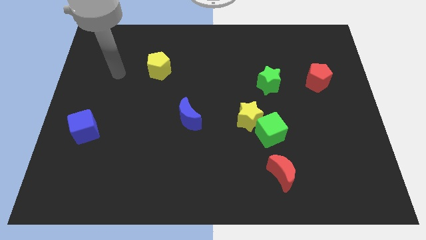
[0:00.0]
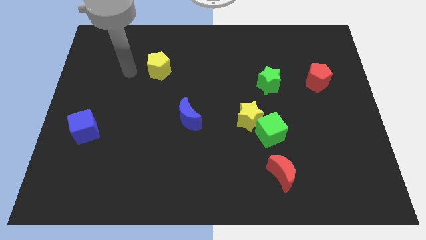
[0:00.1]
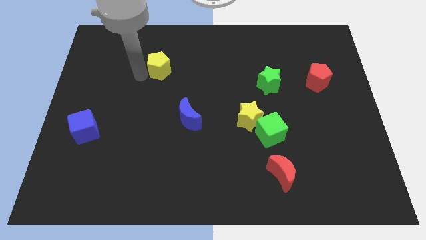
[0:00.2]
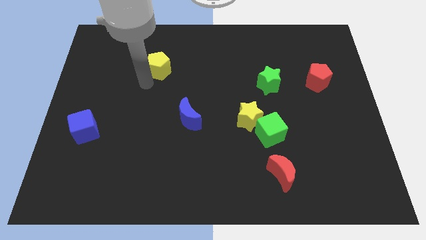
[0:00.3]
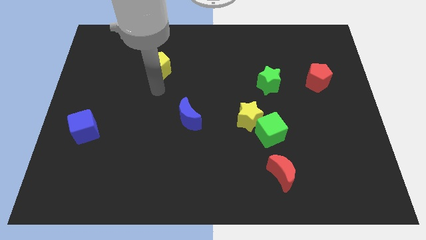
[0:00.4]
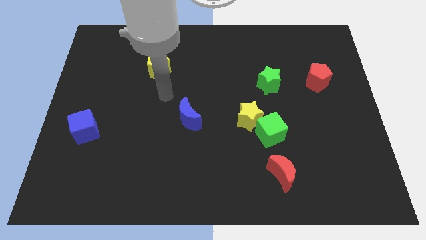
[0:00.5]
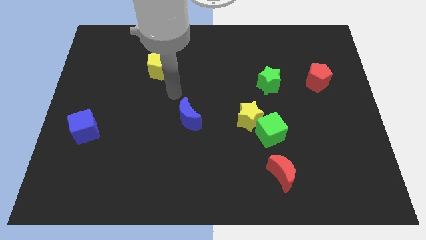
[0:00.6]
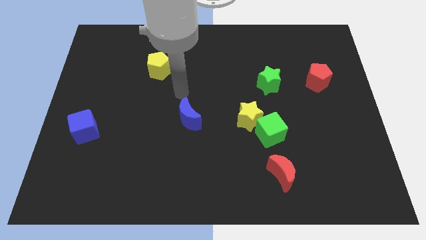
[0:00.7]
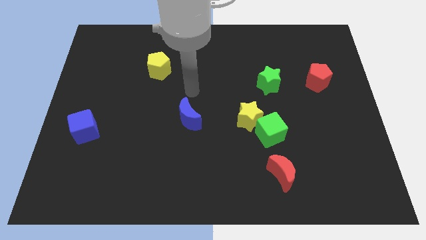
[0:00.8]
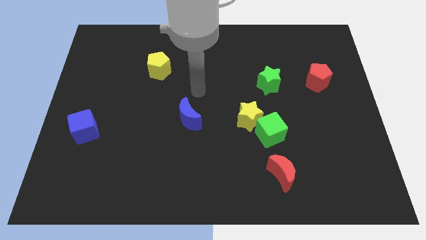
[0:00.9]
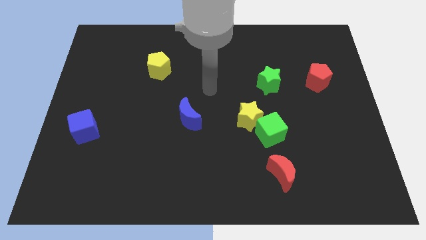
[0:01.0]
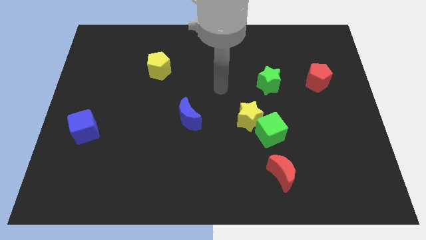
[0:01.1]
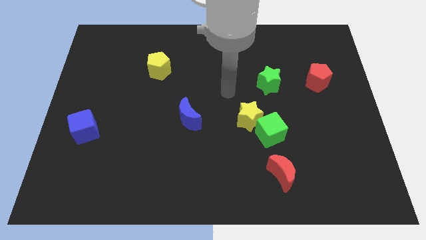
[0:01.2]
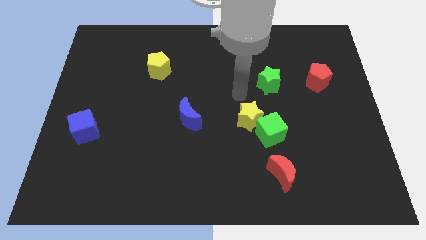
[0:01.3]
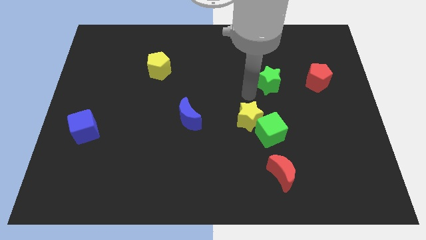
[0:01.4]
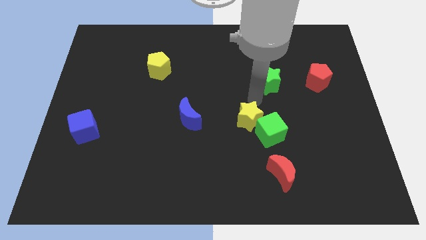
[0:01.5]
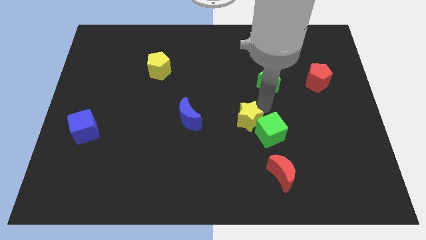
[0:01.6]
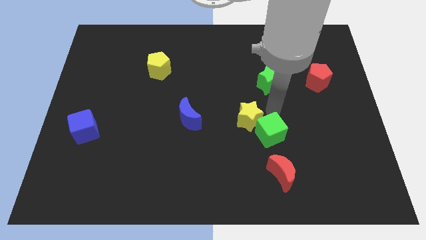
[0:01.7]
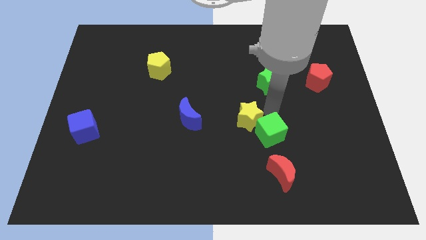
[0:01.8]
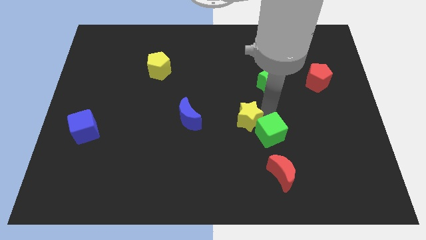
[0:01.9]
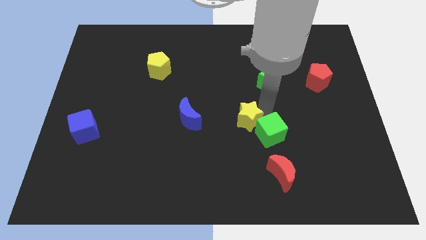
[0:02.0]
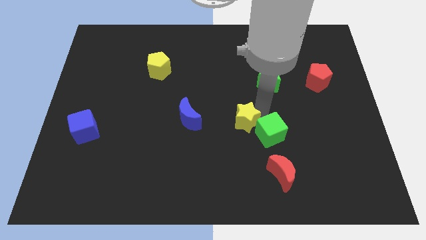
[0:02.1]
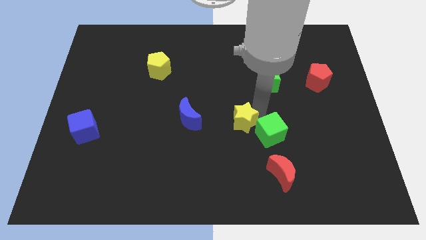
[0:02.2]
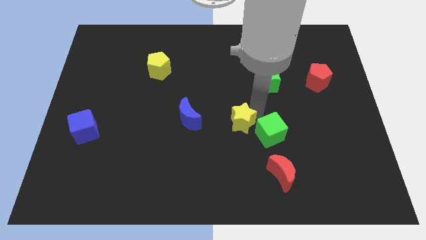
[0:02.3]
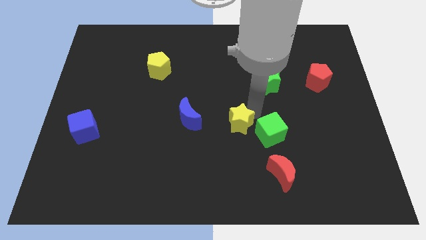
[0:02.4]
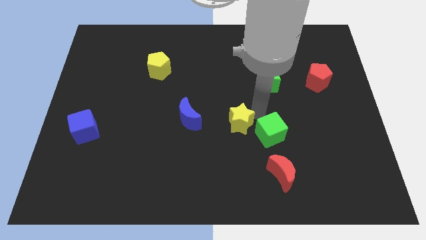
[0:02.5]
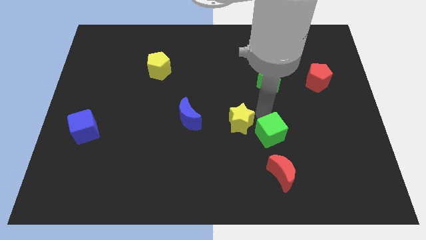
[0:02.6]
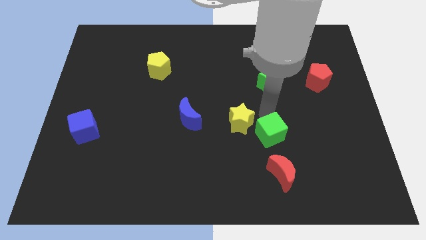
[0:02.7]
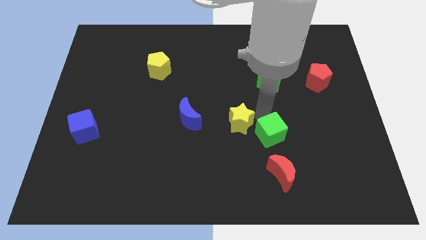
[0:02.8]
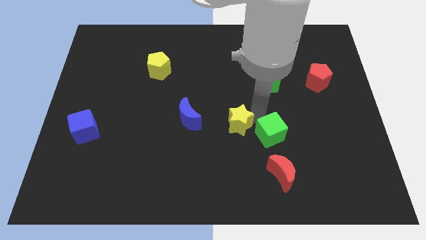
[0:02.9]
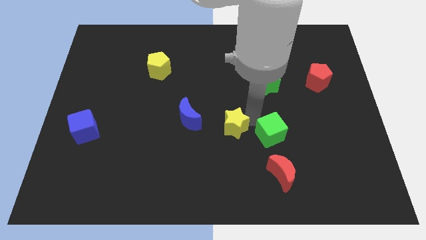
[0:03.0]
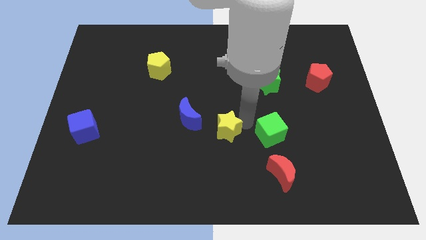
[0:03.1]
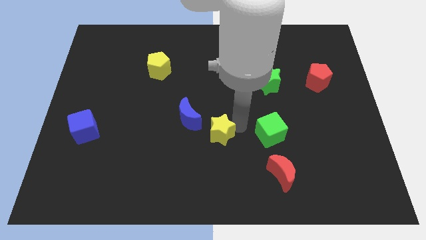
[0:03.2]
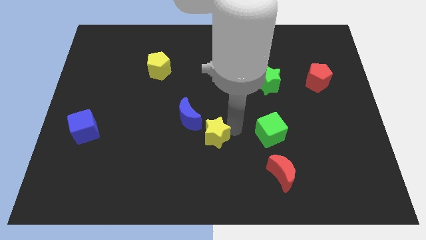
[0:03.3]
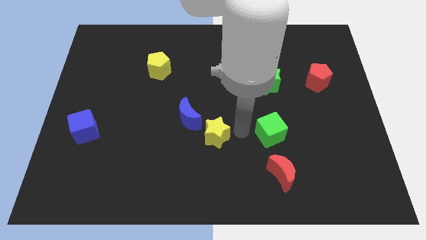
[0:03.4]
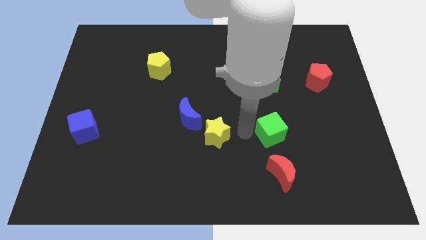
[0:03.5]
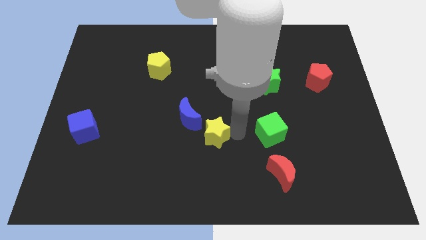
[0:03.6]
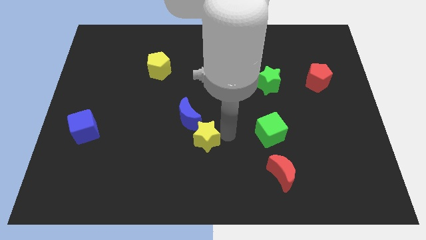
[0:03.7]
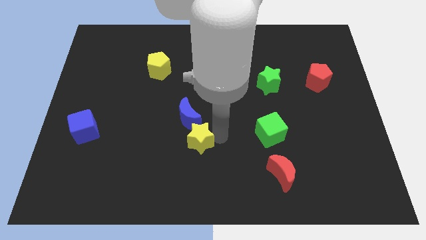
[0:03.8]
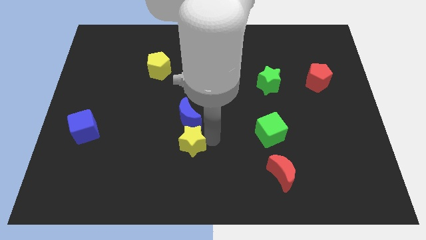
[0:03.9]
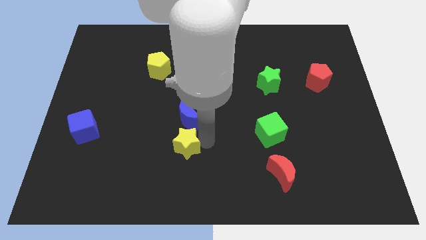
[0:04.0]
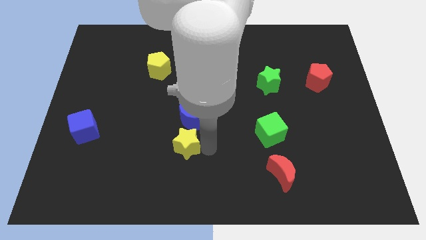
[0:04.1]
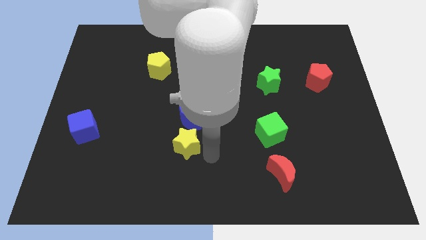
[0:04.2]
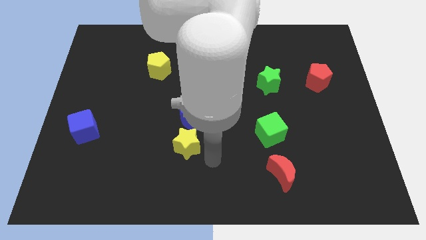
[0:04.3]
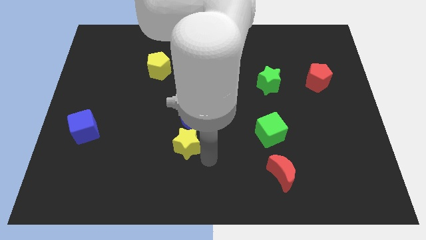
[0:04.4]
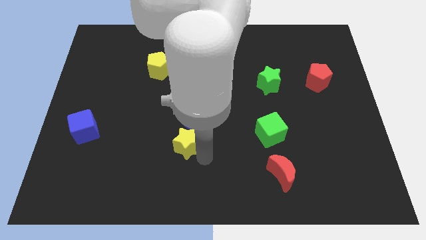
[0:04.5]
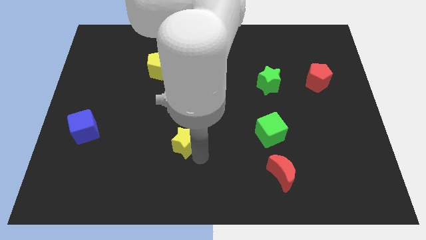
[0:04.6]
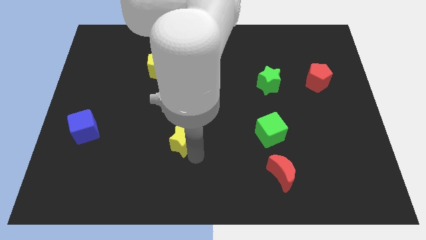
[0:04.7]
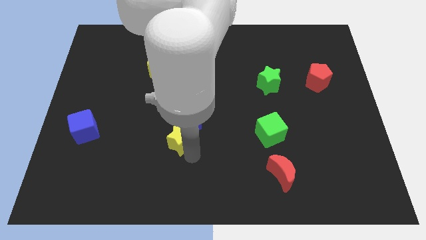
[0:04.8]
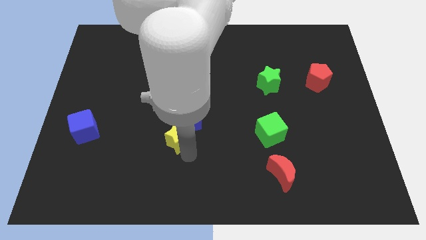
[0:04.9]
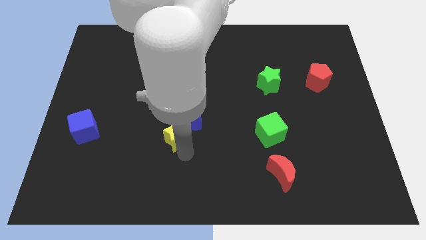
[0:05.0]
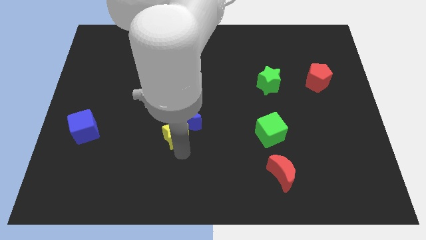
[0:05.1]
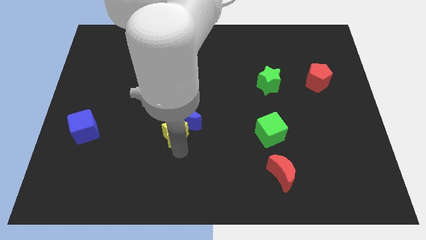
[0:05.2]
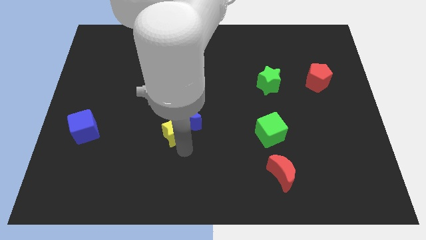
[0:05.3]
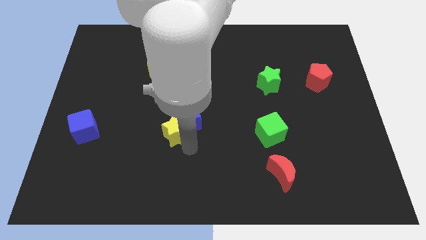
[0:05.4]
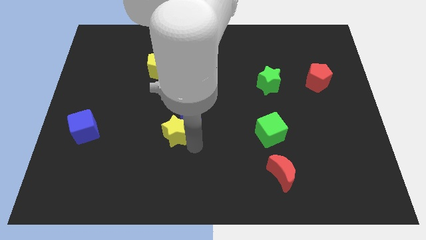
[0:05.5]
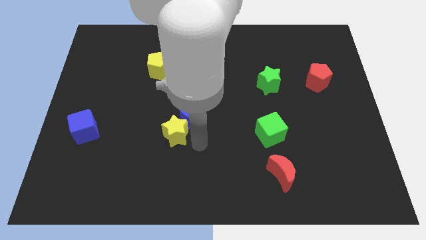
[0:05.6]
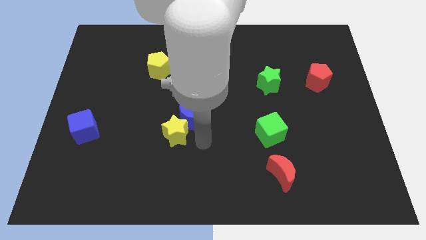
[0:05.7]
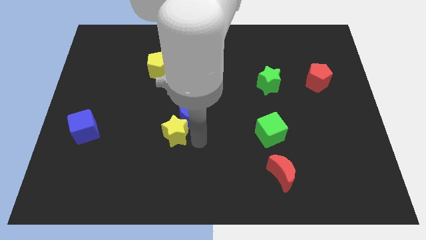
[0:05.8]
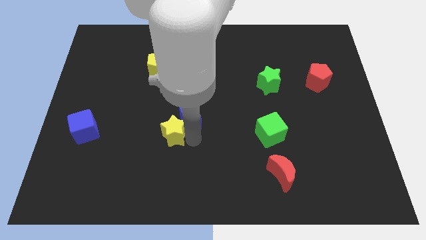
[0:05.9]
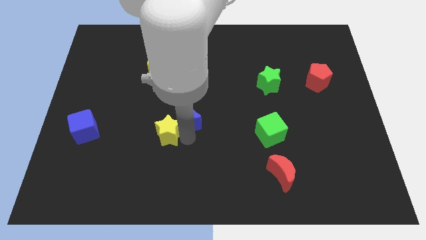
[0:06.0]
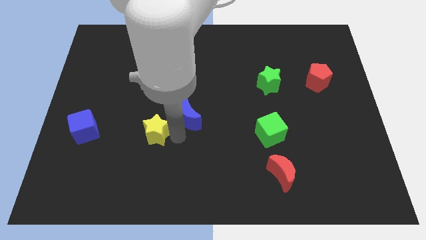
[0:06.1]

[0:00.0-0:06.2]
move the yellow star to the left

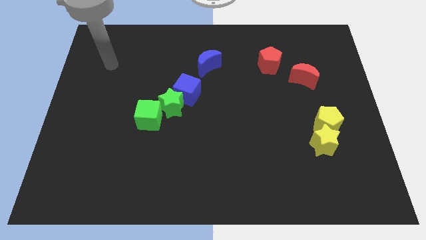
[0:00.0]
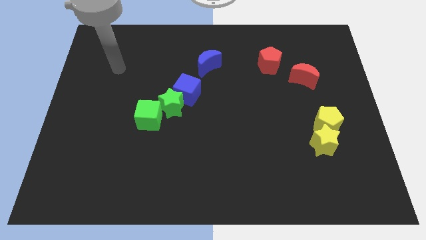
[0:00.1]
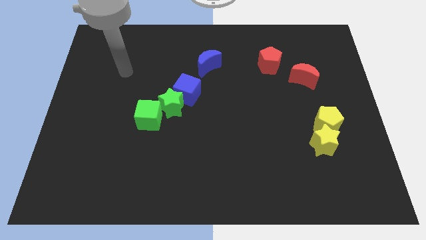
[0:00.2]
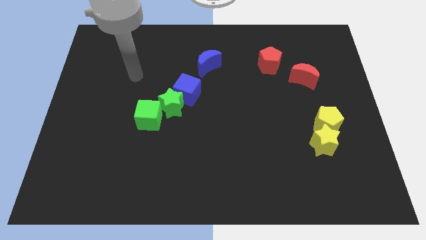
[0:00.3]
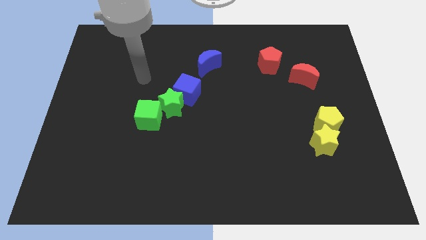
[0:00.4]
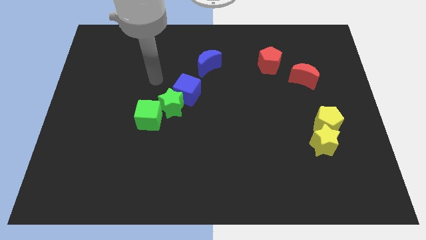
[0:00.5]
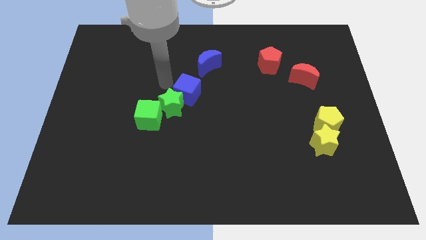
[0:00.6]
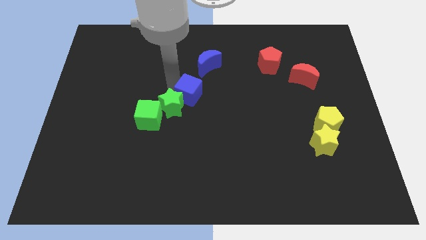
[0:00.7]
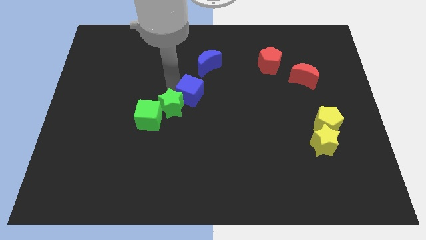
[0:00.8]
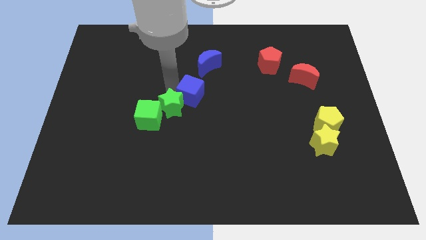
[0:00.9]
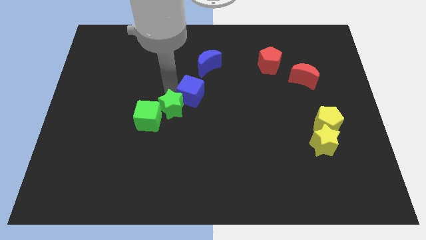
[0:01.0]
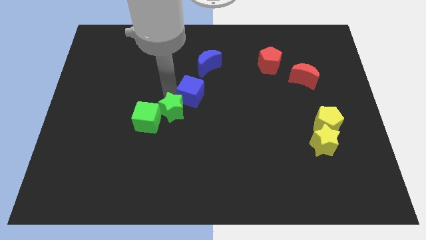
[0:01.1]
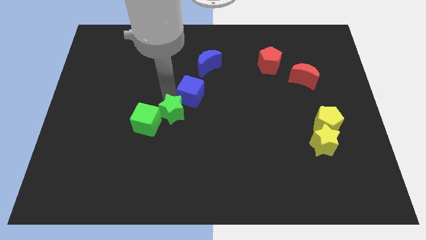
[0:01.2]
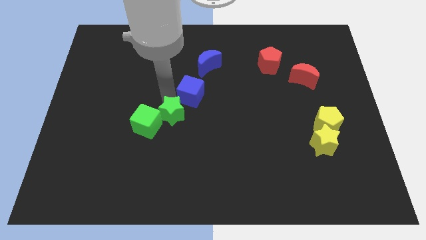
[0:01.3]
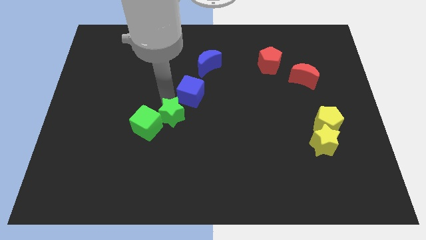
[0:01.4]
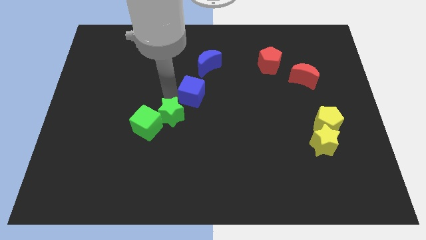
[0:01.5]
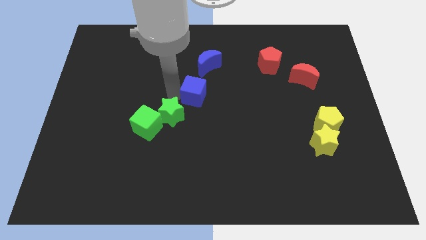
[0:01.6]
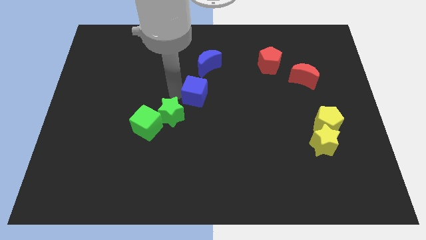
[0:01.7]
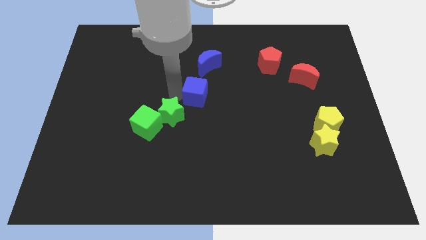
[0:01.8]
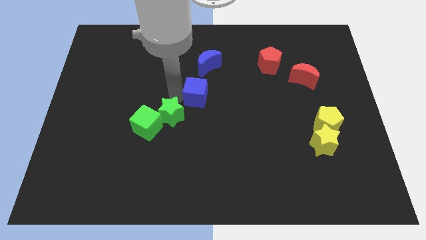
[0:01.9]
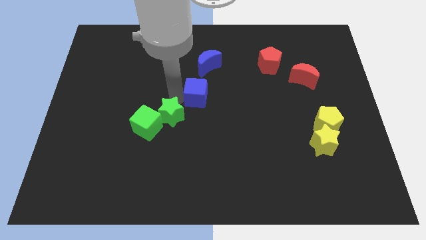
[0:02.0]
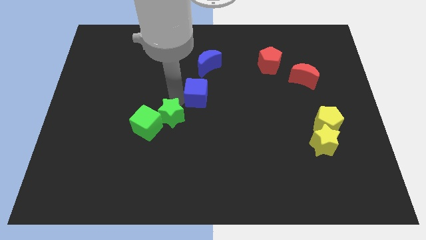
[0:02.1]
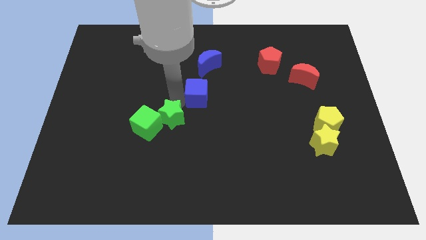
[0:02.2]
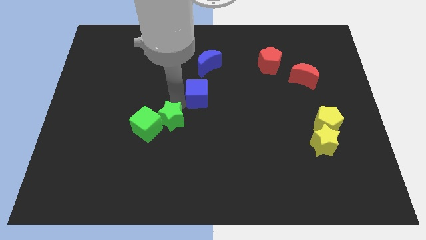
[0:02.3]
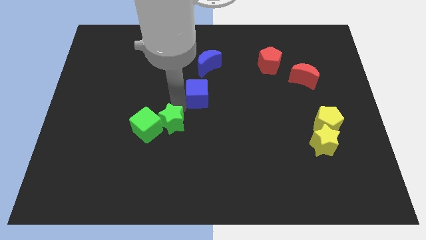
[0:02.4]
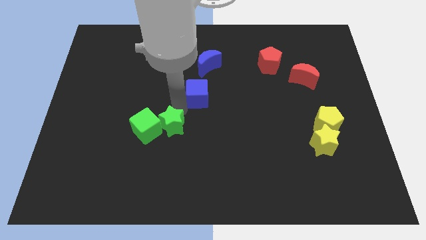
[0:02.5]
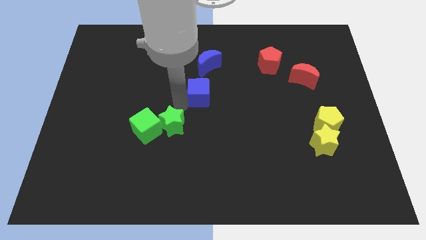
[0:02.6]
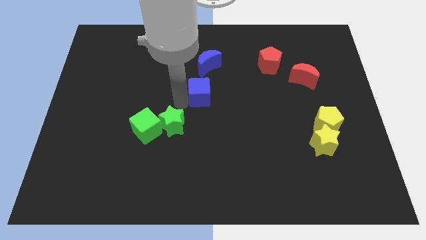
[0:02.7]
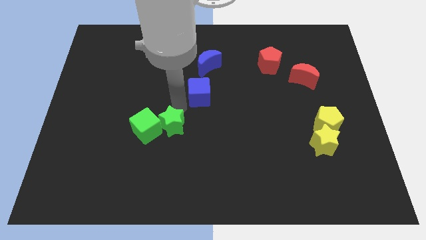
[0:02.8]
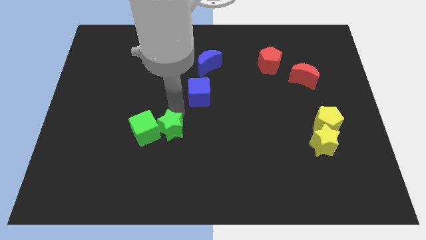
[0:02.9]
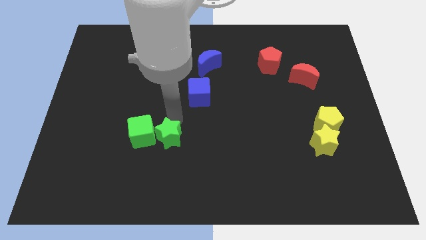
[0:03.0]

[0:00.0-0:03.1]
slightly push the green star downwards
